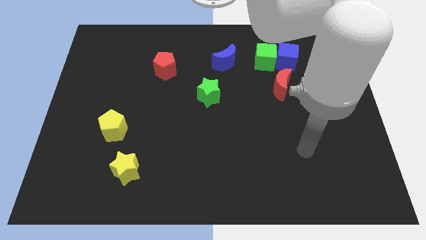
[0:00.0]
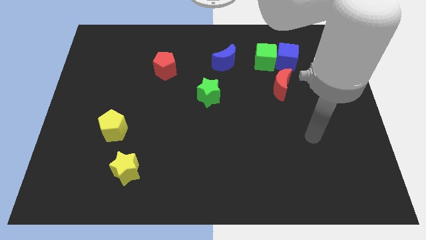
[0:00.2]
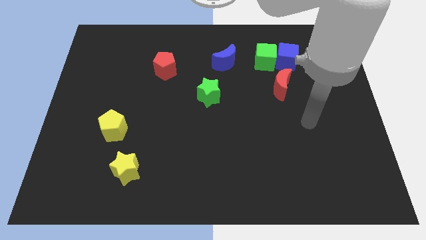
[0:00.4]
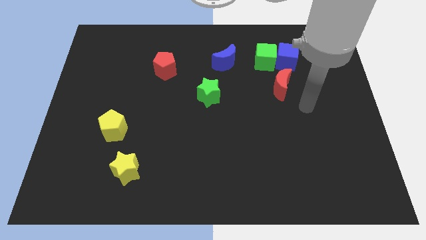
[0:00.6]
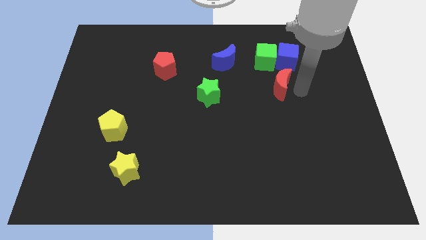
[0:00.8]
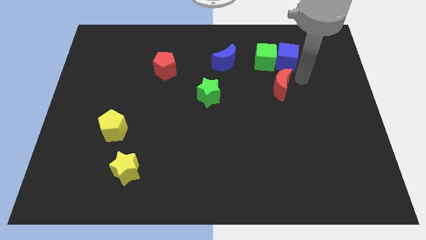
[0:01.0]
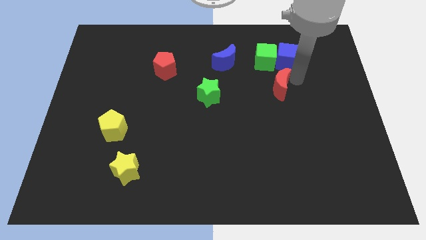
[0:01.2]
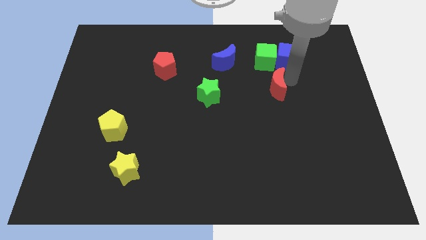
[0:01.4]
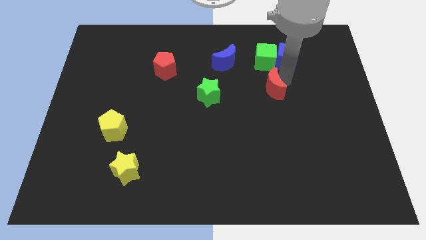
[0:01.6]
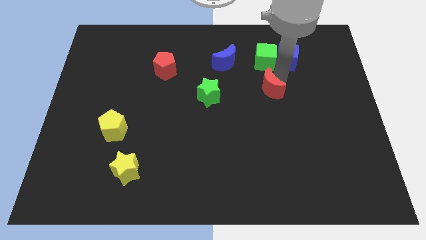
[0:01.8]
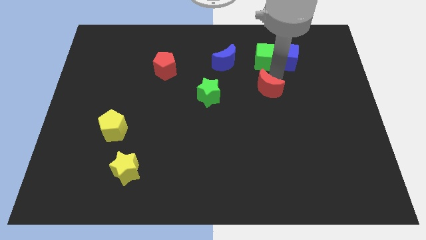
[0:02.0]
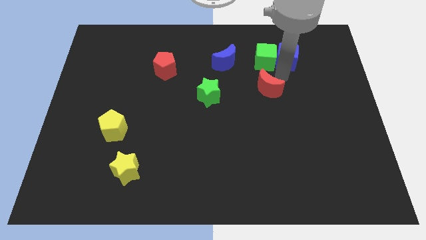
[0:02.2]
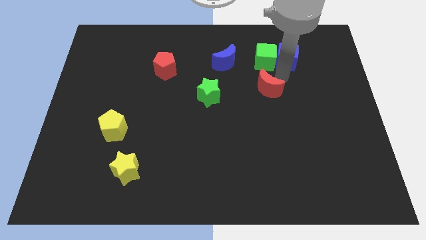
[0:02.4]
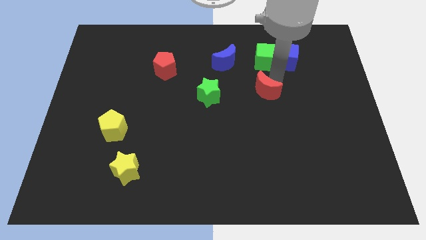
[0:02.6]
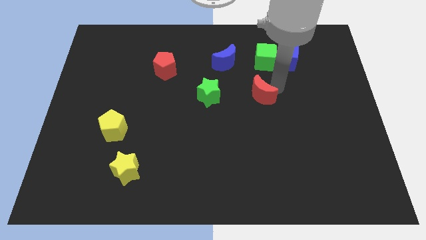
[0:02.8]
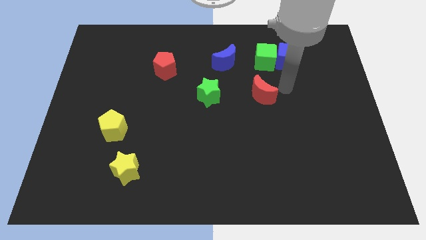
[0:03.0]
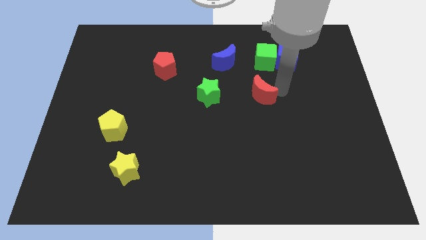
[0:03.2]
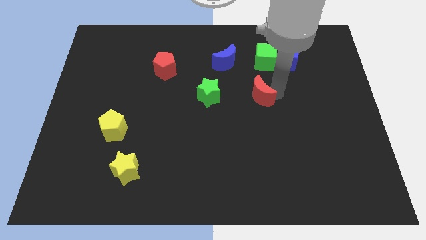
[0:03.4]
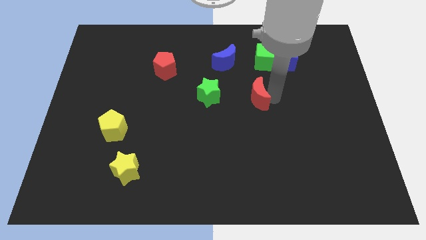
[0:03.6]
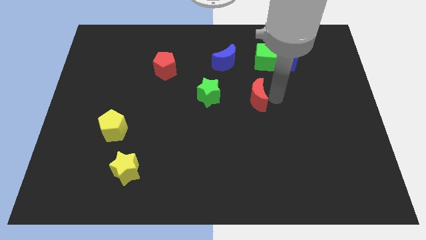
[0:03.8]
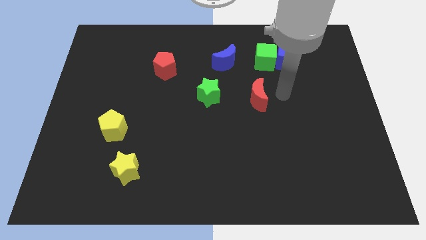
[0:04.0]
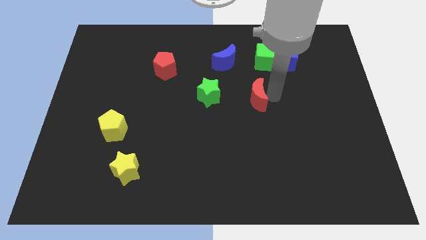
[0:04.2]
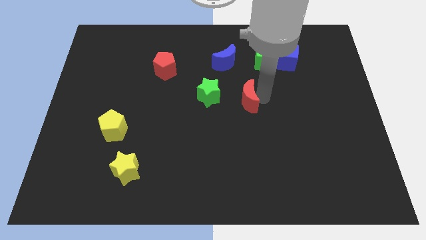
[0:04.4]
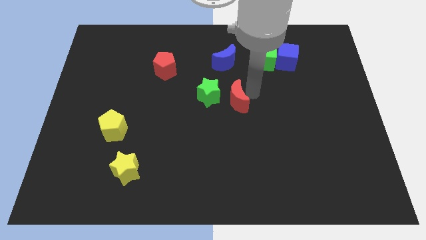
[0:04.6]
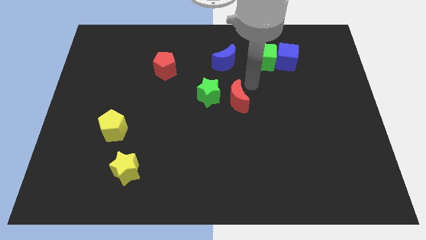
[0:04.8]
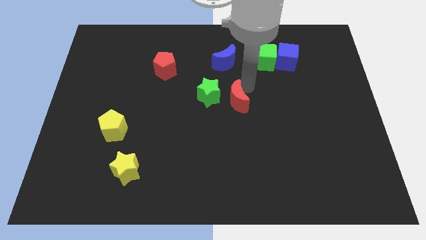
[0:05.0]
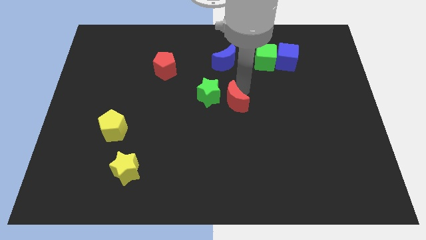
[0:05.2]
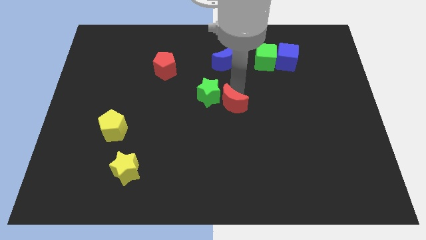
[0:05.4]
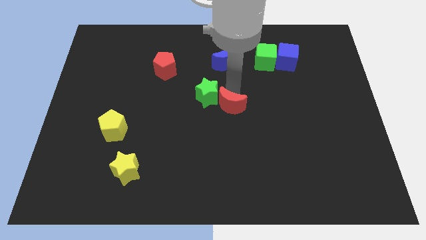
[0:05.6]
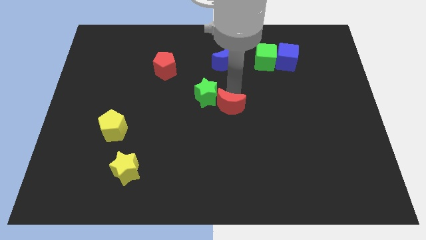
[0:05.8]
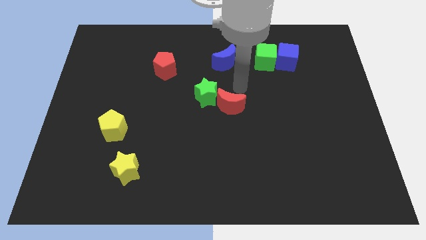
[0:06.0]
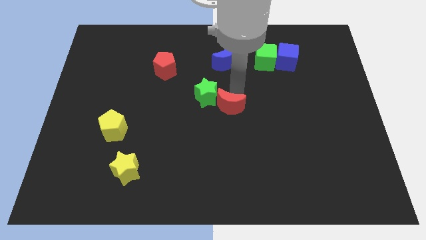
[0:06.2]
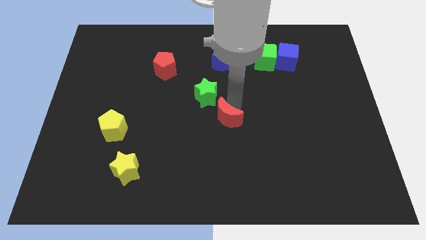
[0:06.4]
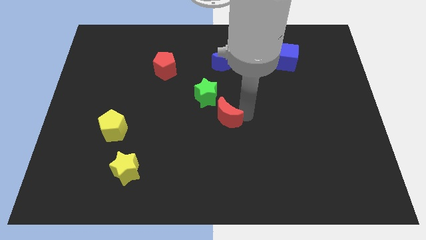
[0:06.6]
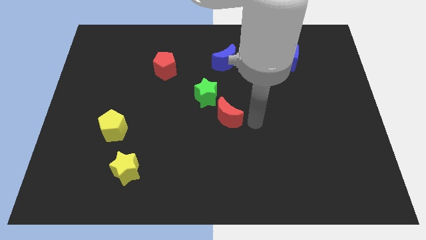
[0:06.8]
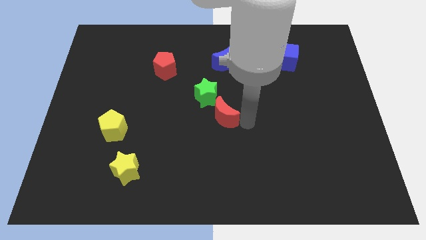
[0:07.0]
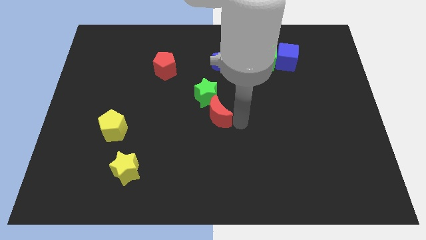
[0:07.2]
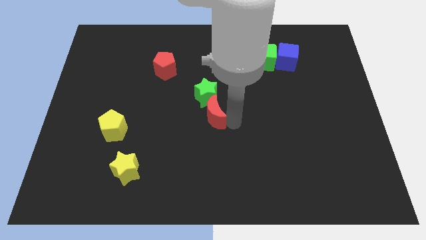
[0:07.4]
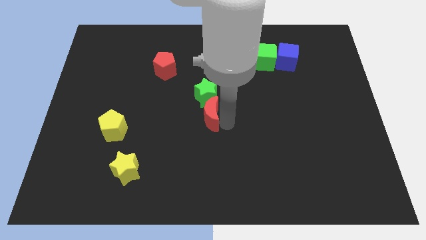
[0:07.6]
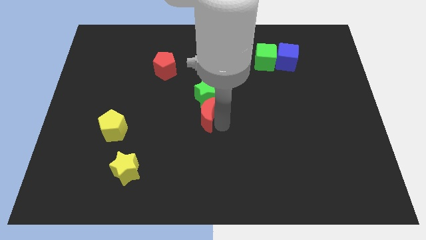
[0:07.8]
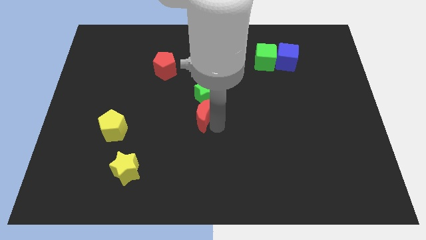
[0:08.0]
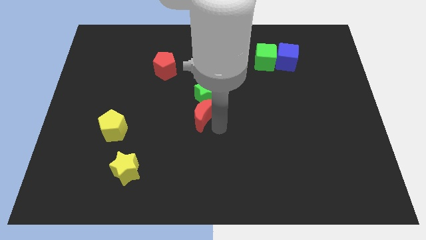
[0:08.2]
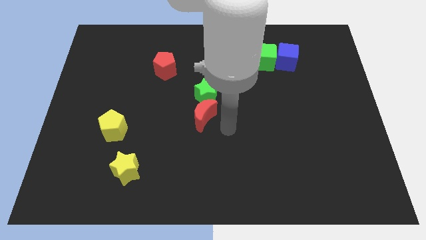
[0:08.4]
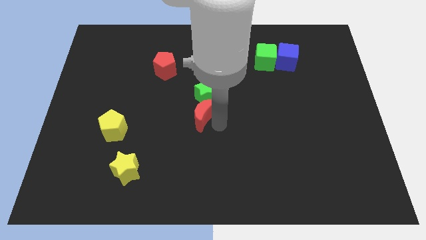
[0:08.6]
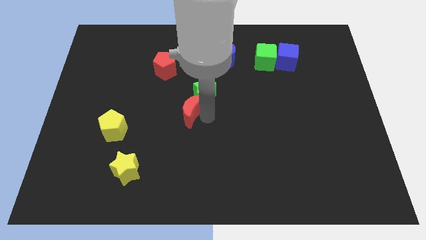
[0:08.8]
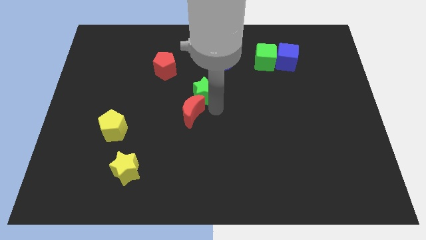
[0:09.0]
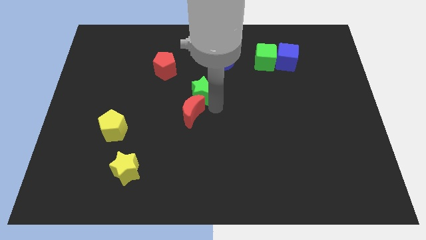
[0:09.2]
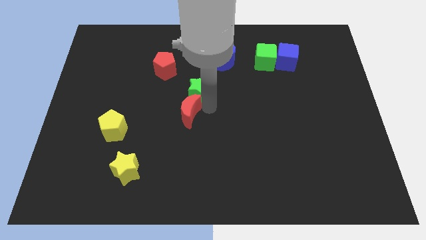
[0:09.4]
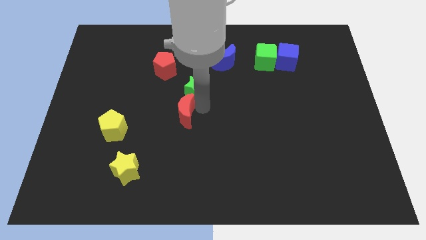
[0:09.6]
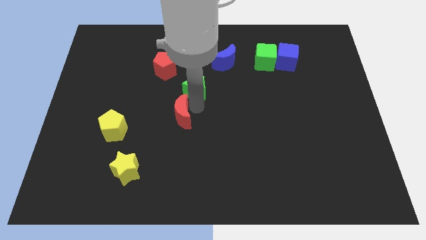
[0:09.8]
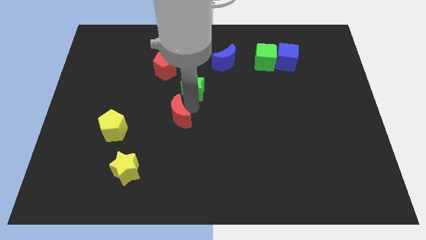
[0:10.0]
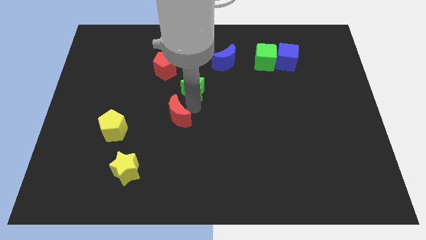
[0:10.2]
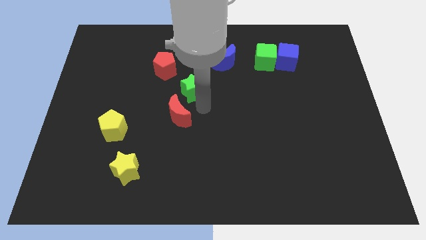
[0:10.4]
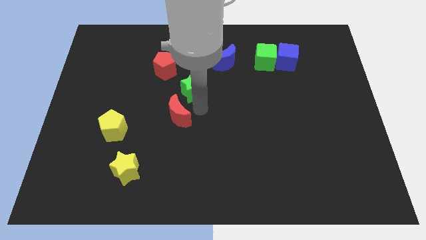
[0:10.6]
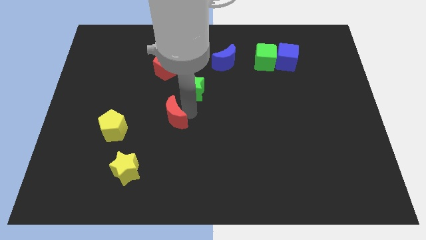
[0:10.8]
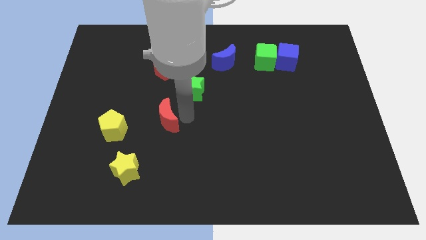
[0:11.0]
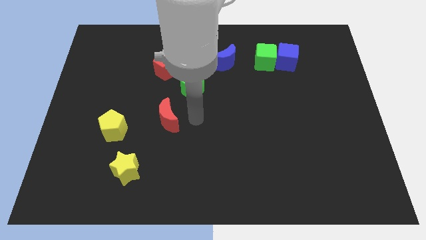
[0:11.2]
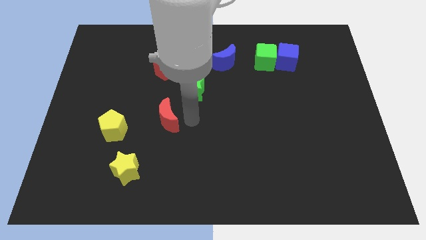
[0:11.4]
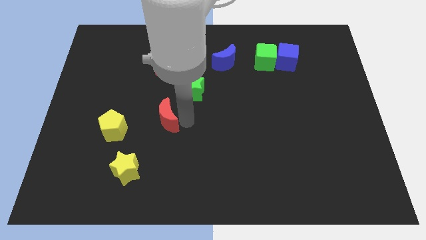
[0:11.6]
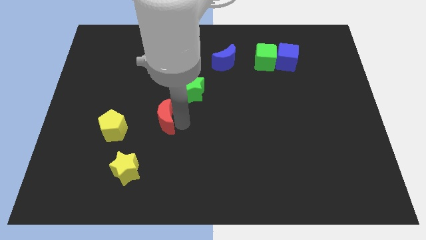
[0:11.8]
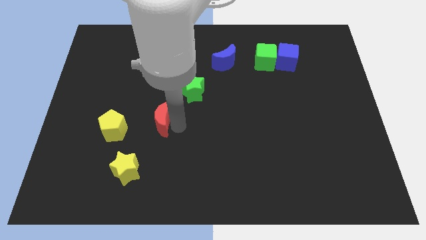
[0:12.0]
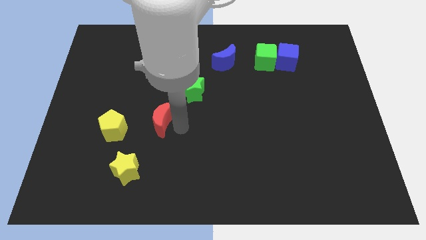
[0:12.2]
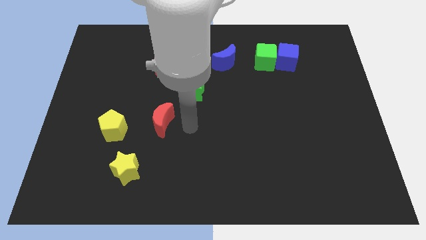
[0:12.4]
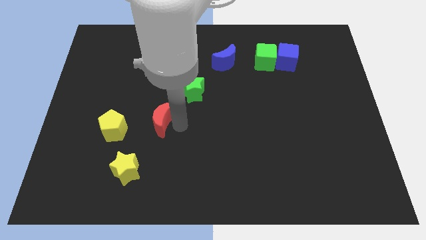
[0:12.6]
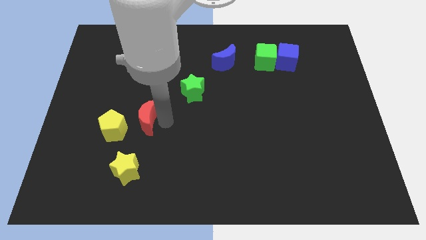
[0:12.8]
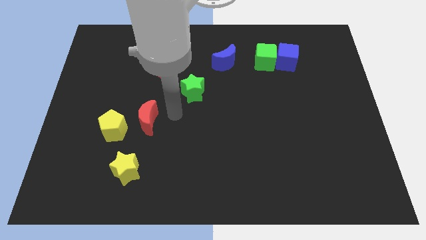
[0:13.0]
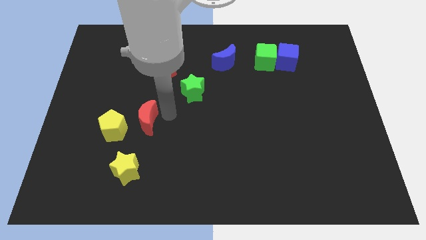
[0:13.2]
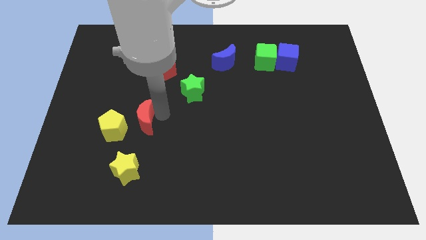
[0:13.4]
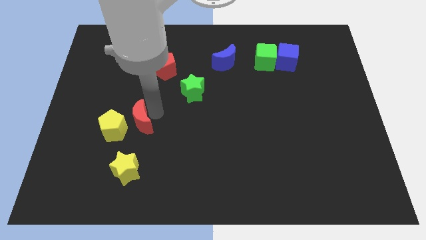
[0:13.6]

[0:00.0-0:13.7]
push the red moon next to the yellow pentagon
